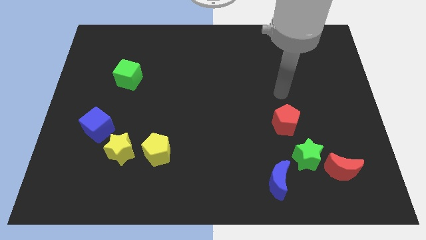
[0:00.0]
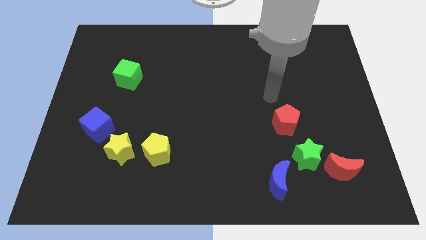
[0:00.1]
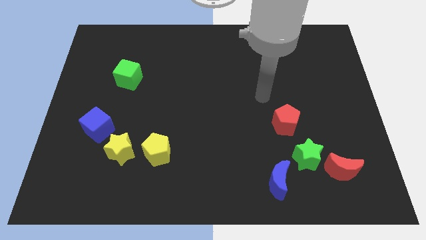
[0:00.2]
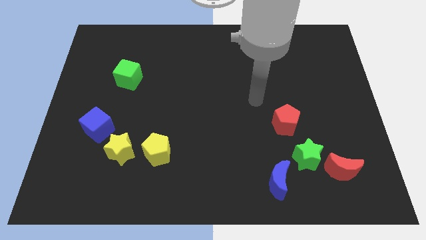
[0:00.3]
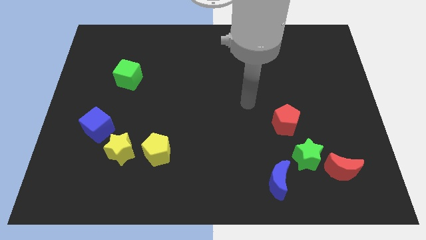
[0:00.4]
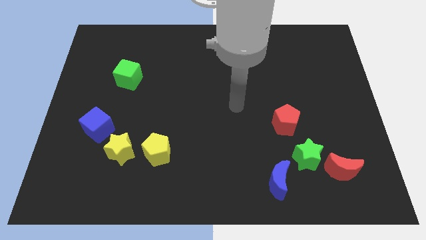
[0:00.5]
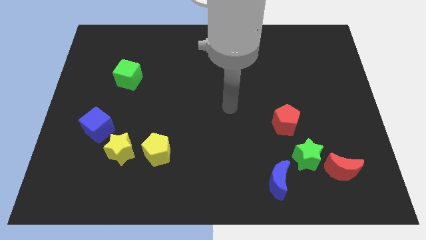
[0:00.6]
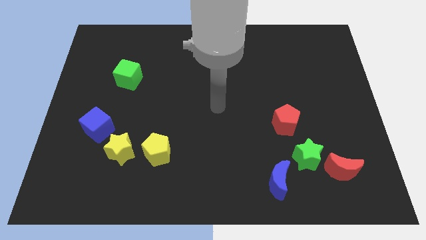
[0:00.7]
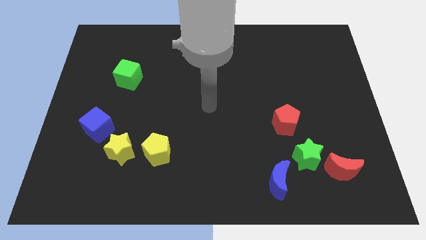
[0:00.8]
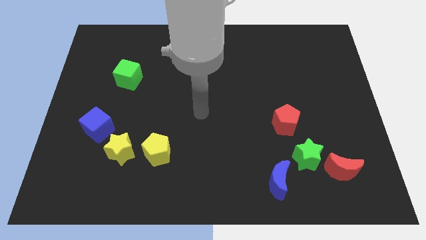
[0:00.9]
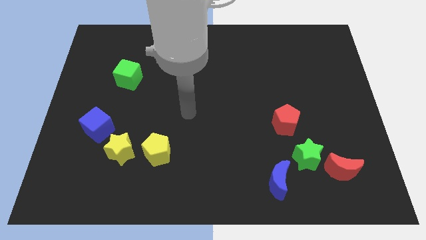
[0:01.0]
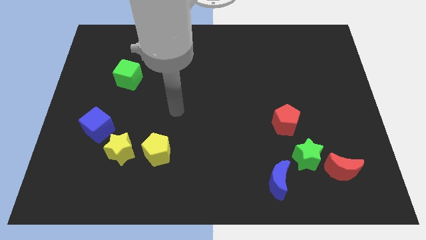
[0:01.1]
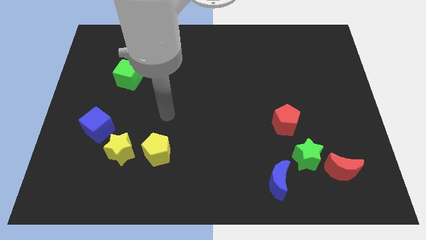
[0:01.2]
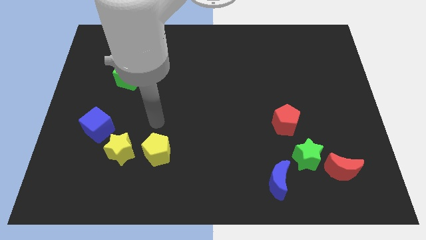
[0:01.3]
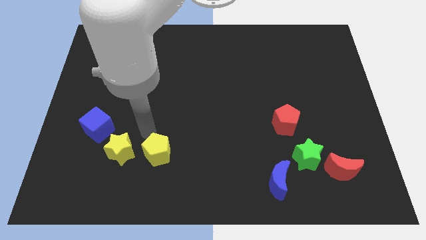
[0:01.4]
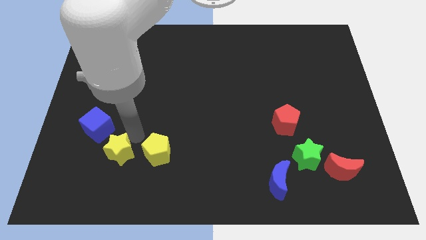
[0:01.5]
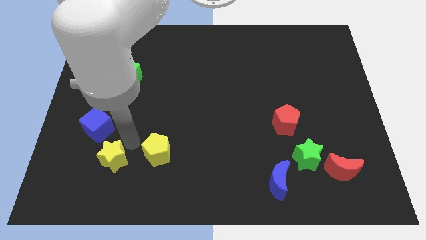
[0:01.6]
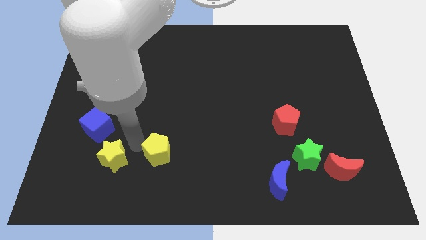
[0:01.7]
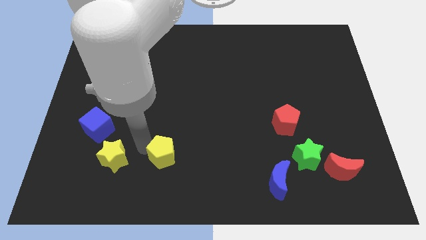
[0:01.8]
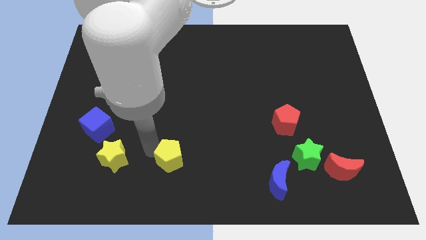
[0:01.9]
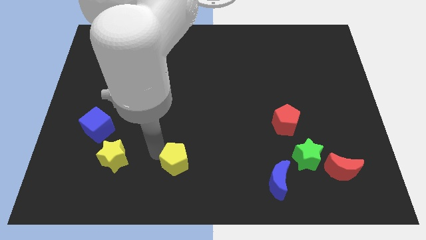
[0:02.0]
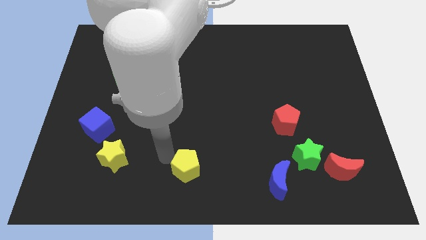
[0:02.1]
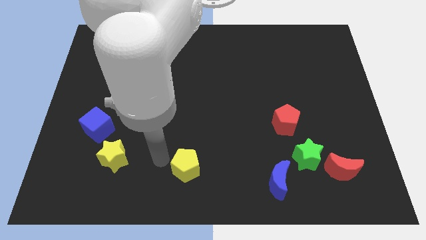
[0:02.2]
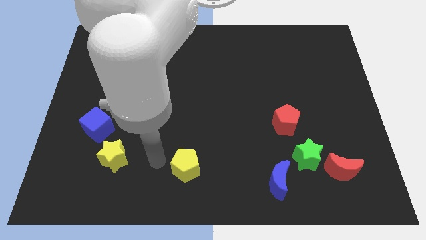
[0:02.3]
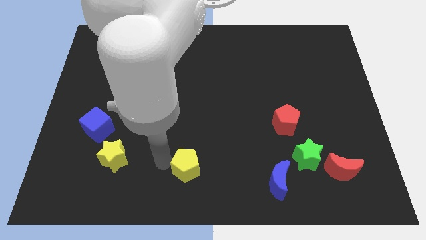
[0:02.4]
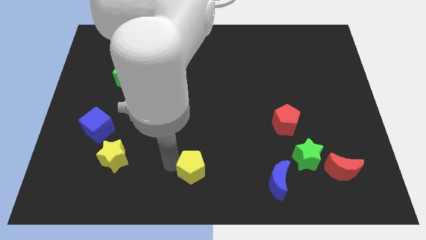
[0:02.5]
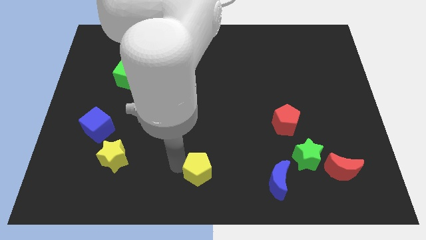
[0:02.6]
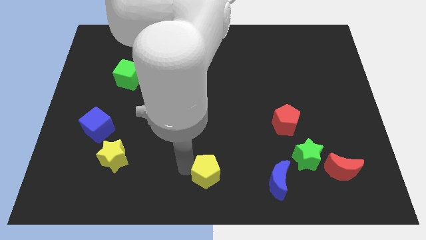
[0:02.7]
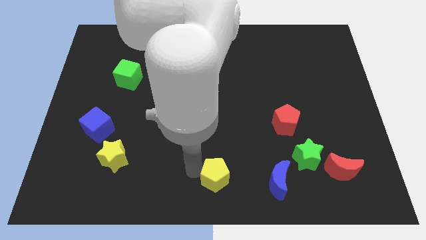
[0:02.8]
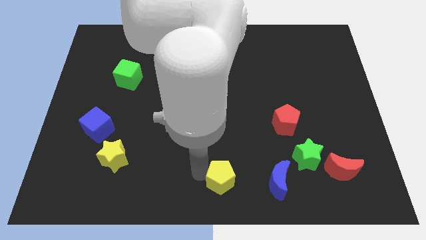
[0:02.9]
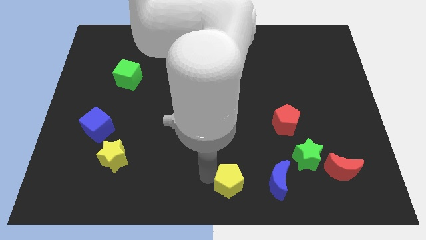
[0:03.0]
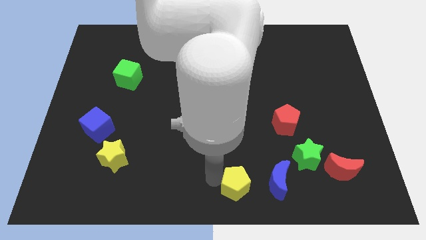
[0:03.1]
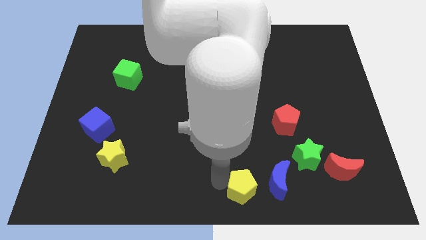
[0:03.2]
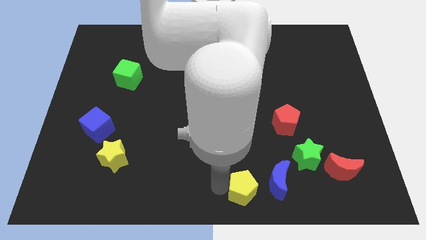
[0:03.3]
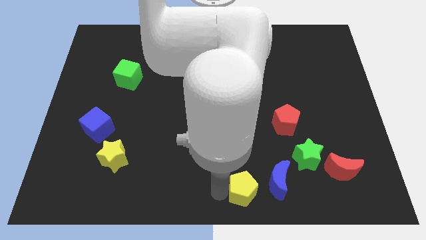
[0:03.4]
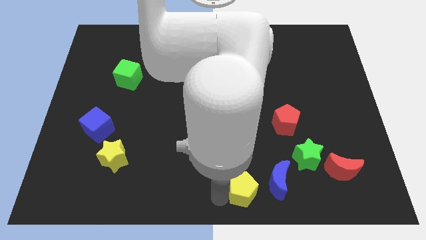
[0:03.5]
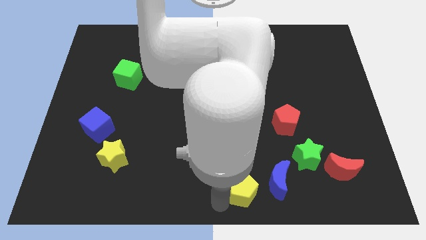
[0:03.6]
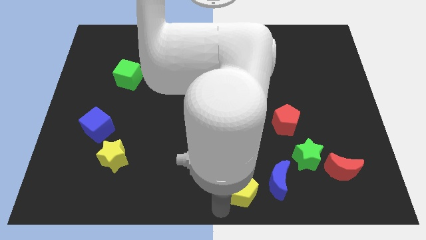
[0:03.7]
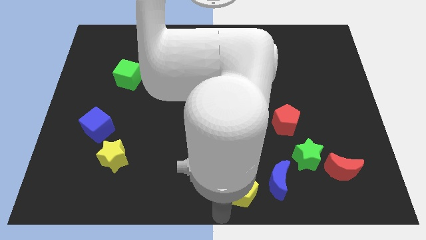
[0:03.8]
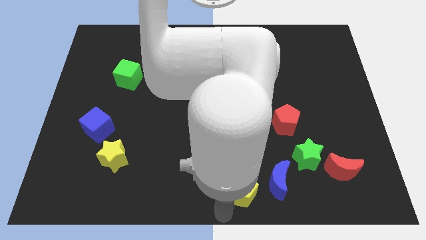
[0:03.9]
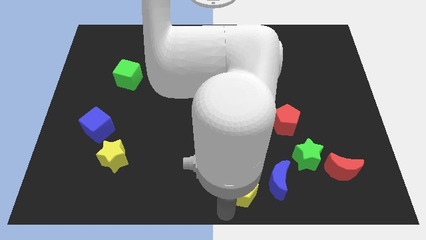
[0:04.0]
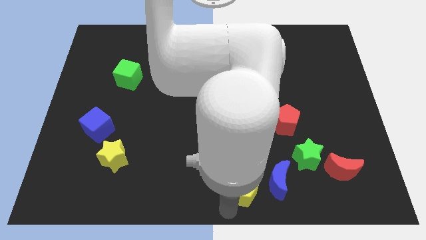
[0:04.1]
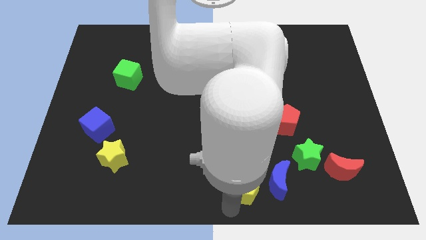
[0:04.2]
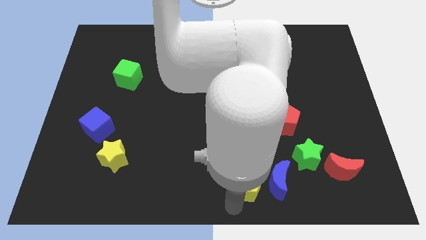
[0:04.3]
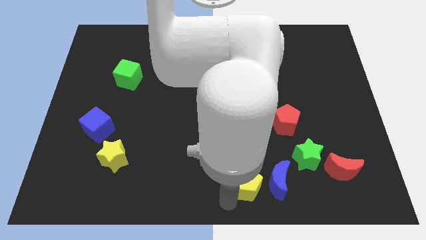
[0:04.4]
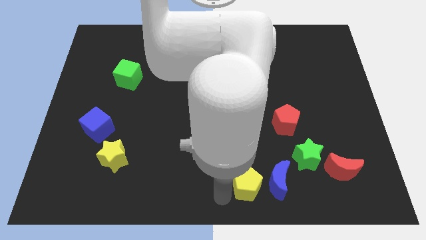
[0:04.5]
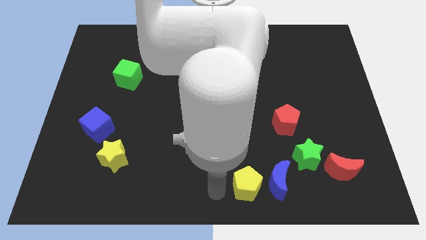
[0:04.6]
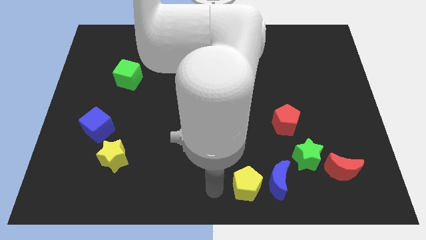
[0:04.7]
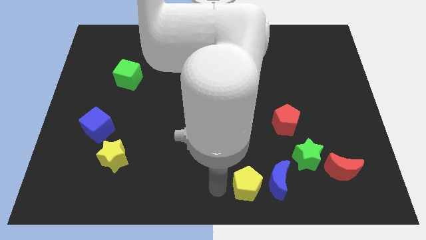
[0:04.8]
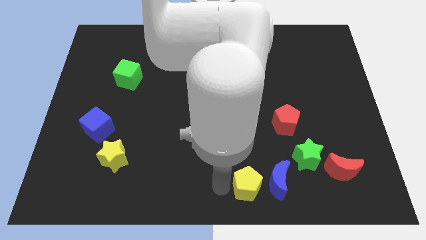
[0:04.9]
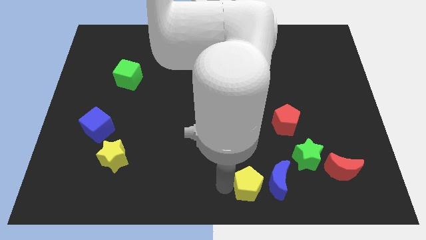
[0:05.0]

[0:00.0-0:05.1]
slide the yellow pentagon towards the blue moon

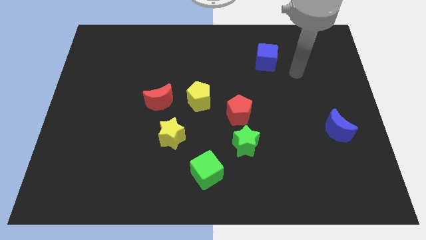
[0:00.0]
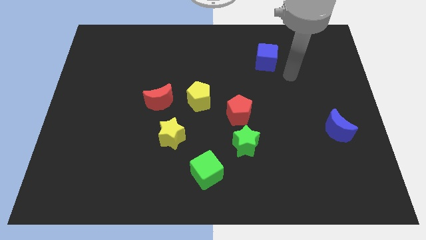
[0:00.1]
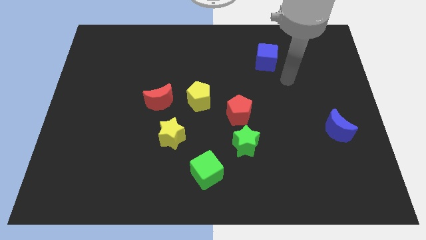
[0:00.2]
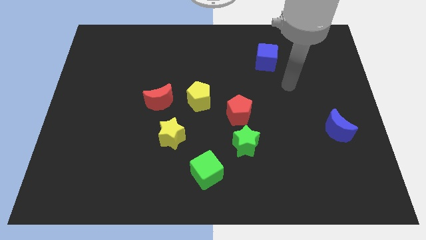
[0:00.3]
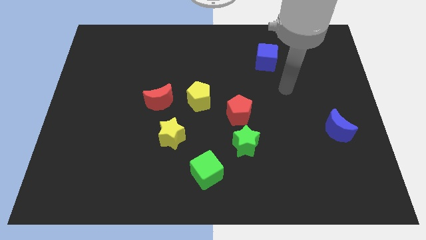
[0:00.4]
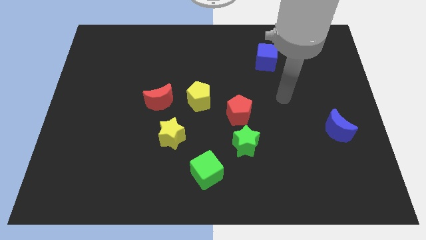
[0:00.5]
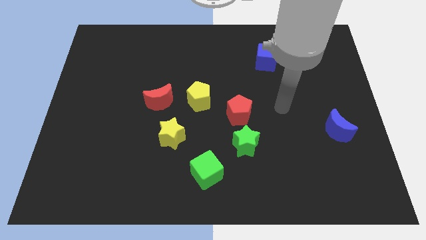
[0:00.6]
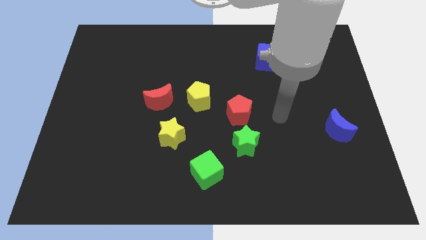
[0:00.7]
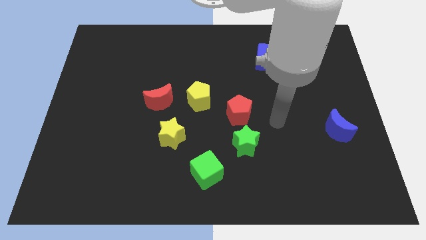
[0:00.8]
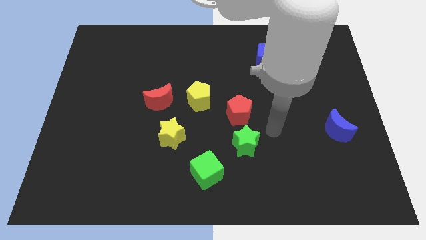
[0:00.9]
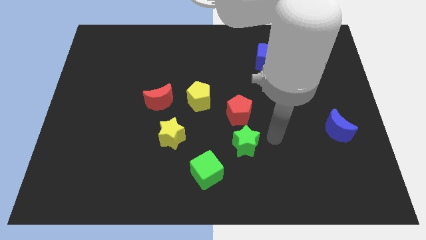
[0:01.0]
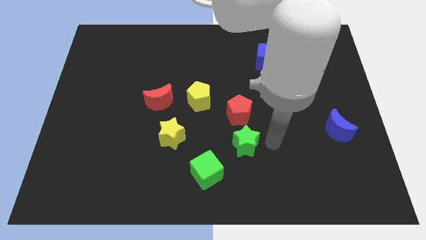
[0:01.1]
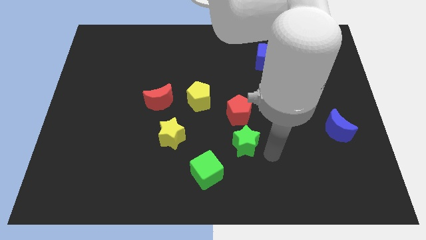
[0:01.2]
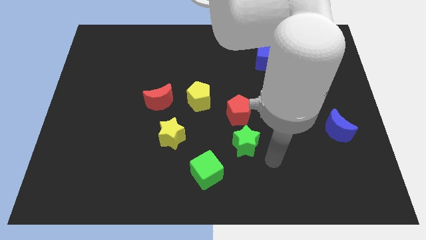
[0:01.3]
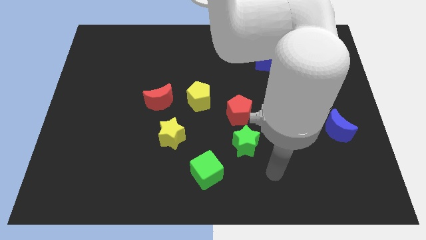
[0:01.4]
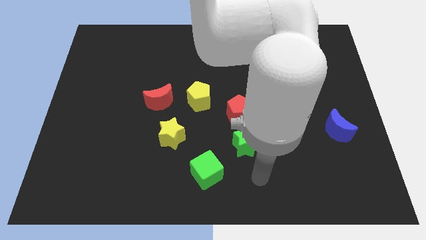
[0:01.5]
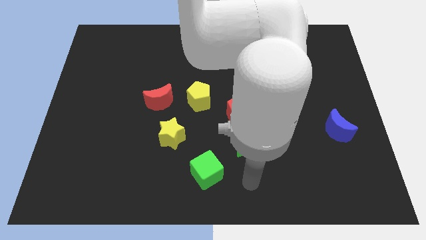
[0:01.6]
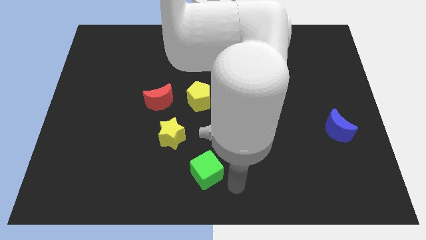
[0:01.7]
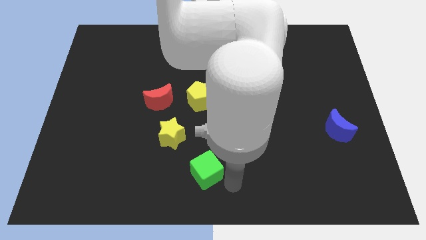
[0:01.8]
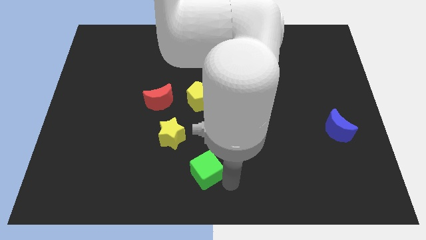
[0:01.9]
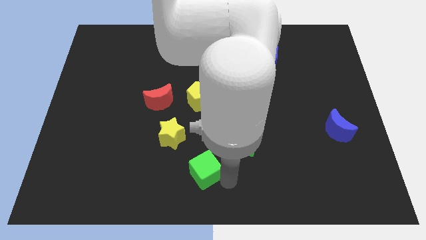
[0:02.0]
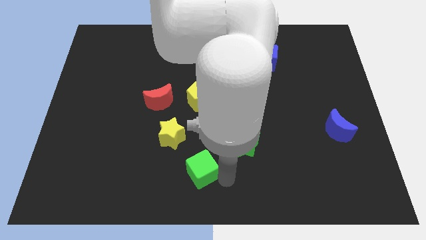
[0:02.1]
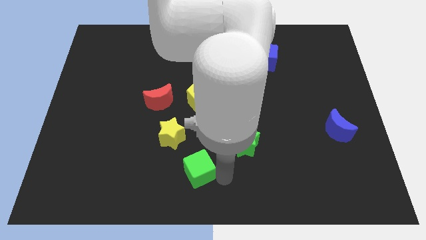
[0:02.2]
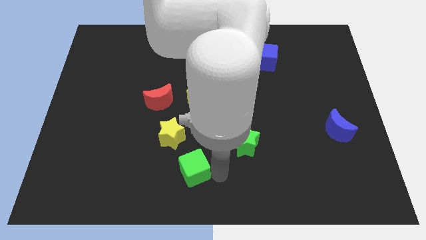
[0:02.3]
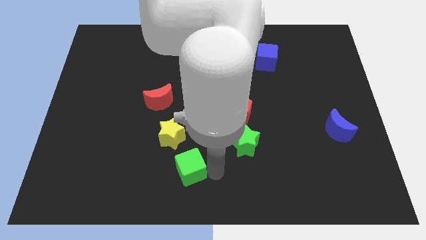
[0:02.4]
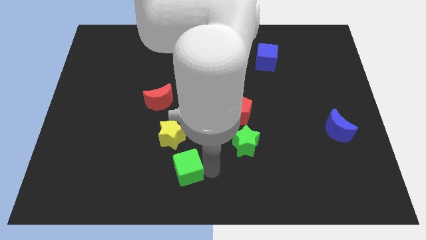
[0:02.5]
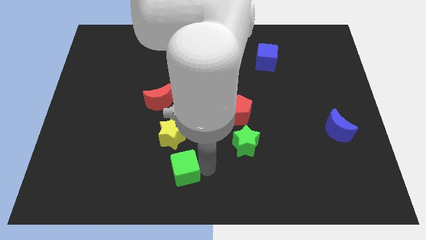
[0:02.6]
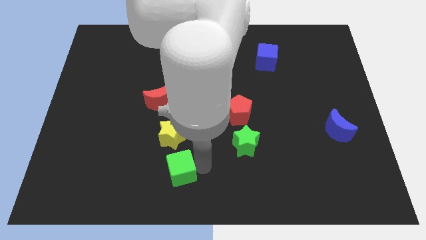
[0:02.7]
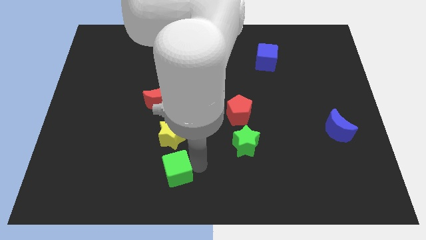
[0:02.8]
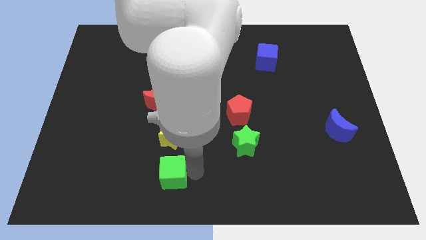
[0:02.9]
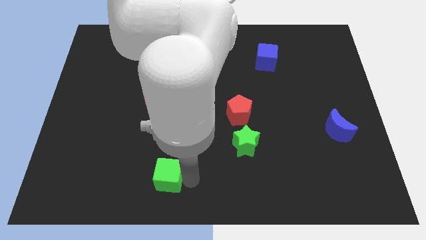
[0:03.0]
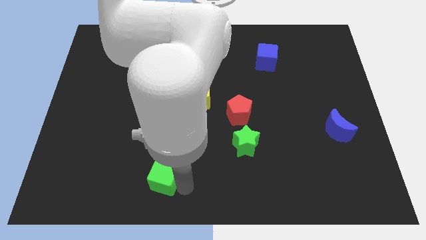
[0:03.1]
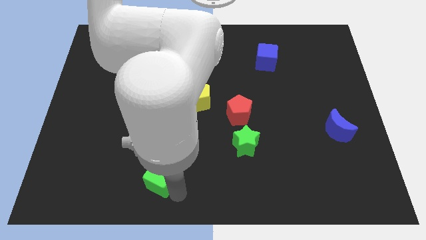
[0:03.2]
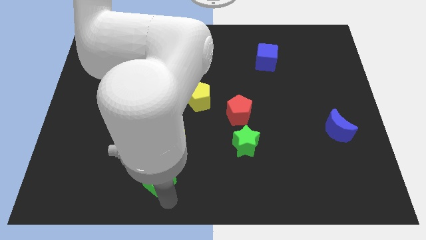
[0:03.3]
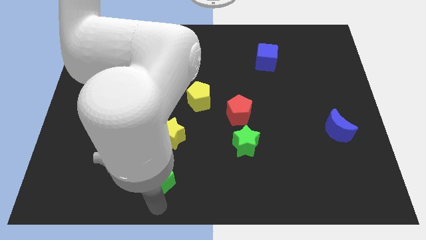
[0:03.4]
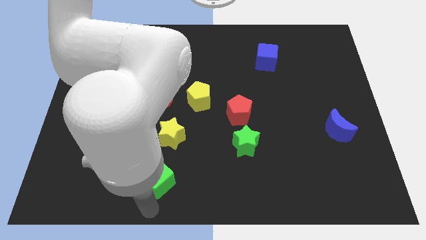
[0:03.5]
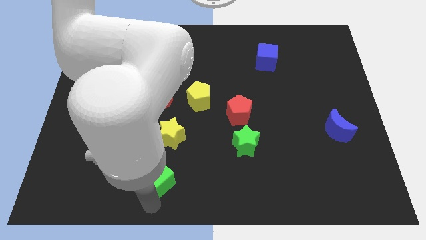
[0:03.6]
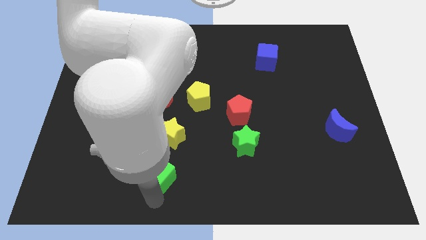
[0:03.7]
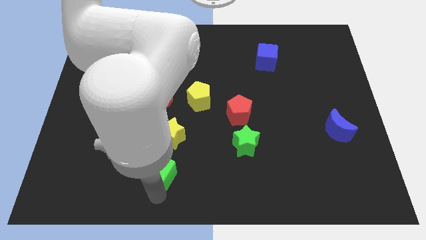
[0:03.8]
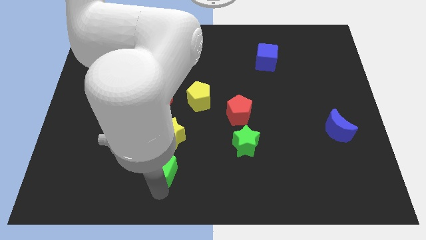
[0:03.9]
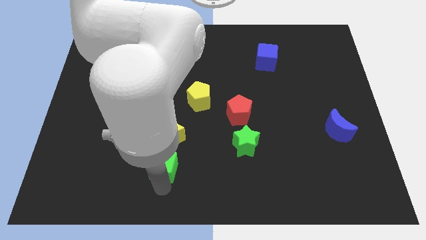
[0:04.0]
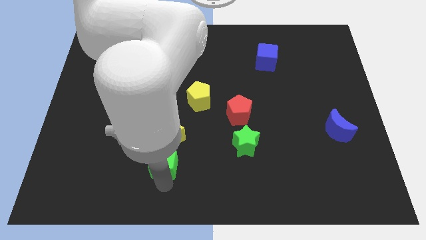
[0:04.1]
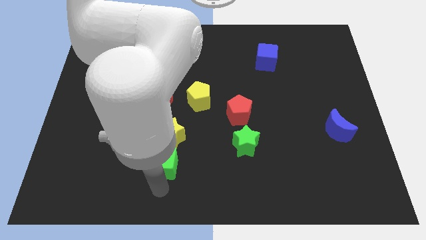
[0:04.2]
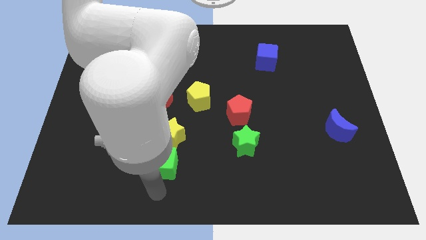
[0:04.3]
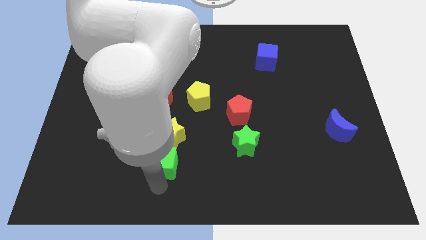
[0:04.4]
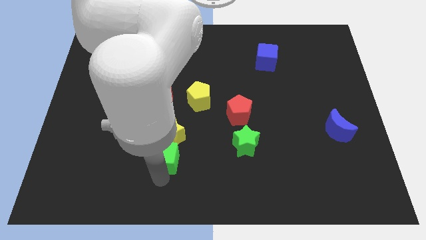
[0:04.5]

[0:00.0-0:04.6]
push the green cube towards the yellow star
